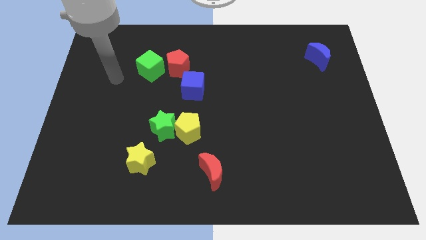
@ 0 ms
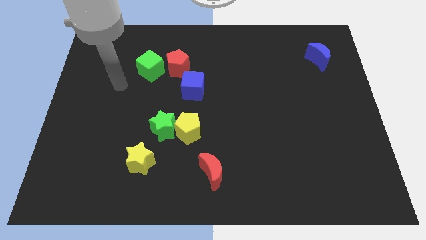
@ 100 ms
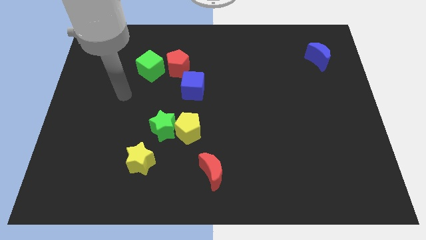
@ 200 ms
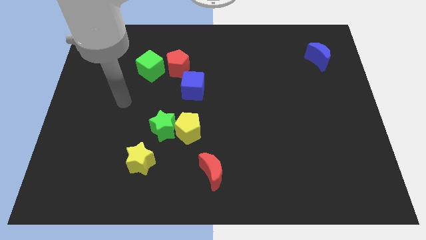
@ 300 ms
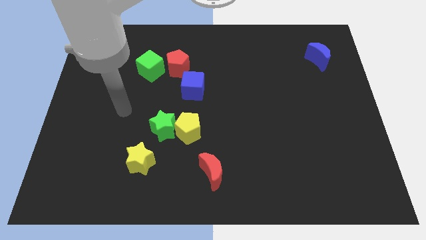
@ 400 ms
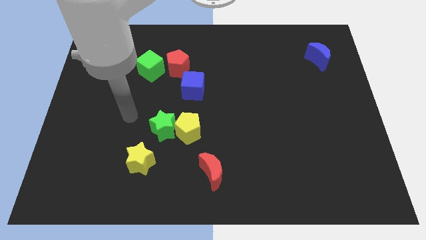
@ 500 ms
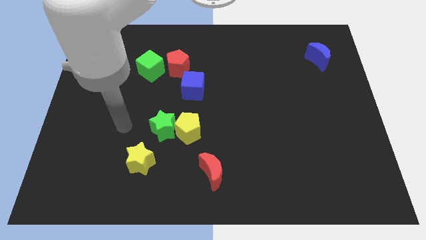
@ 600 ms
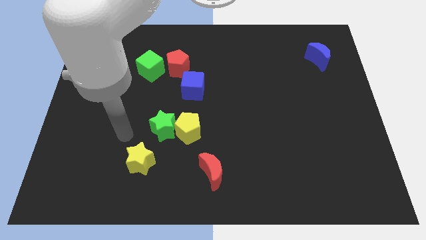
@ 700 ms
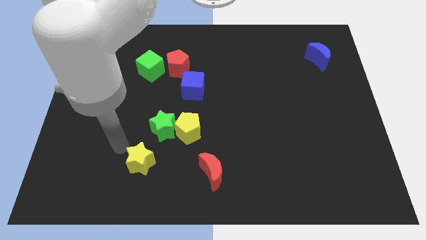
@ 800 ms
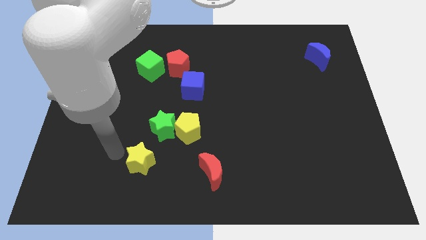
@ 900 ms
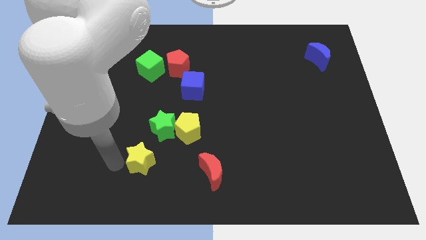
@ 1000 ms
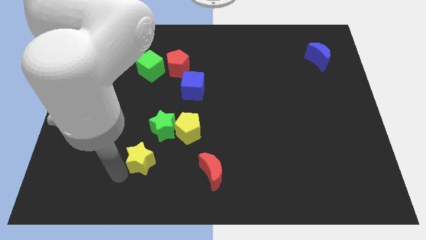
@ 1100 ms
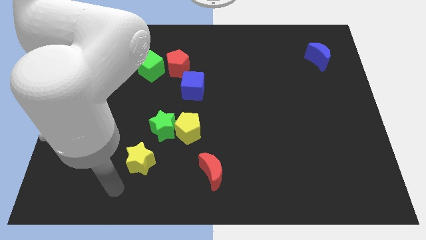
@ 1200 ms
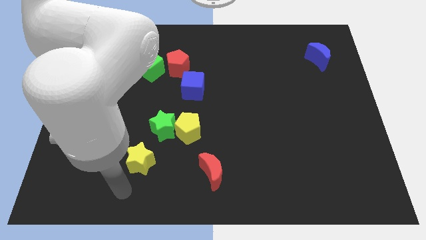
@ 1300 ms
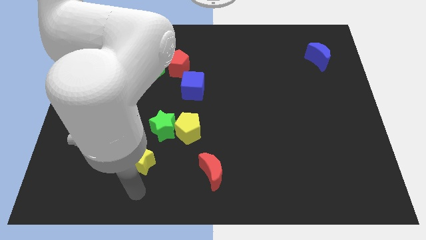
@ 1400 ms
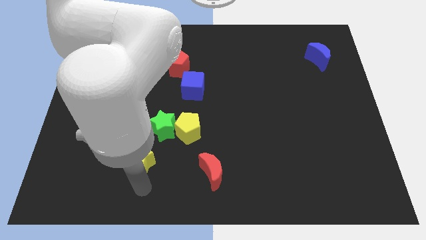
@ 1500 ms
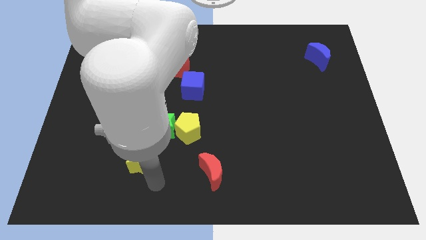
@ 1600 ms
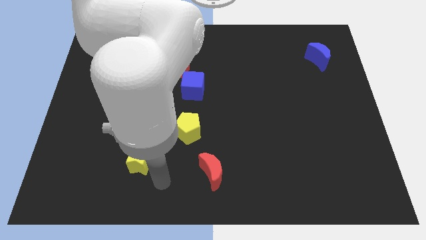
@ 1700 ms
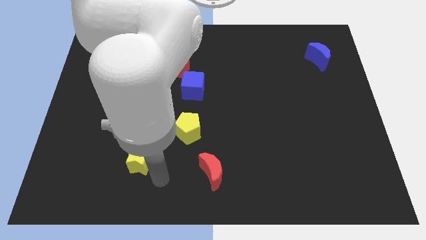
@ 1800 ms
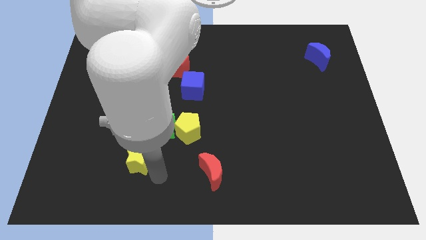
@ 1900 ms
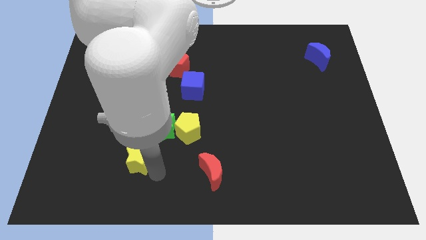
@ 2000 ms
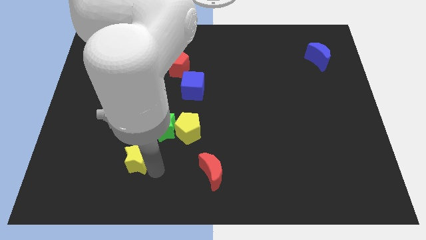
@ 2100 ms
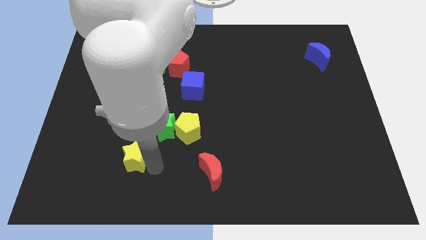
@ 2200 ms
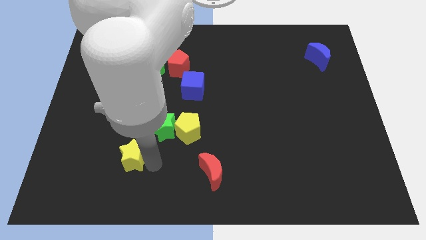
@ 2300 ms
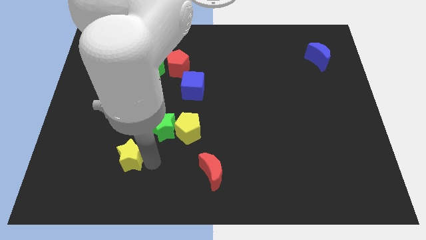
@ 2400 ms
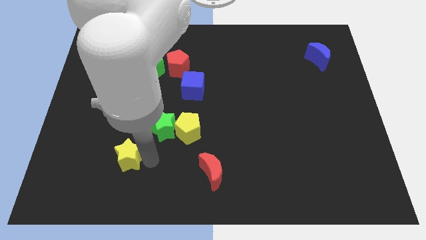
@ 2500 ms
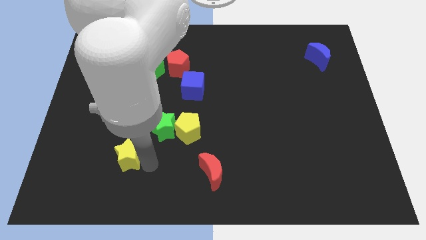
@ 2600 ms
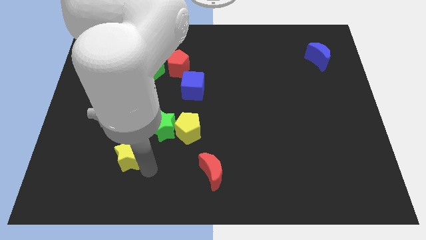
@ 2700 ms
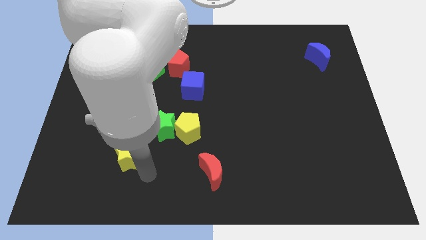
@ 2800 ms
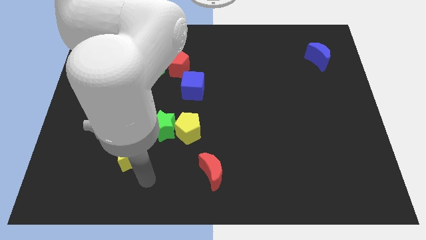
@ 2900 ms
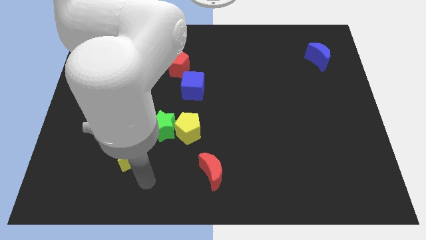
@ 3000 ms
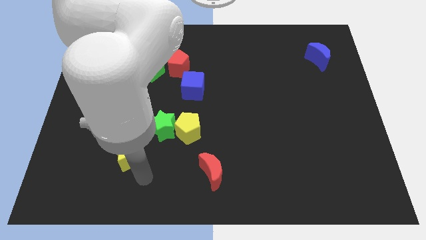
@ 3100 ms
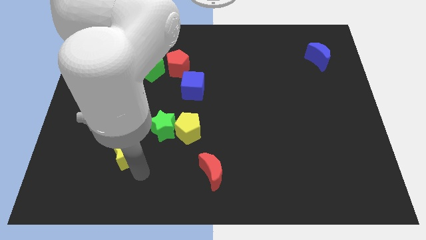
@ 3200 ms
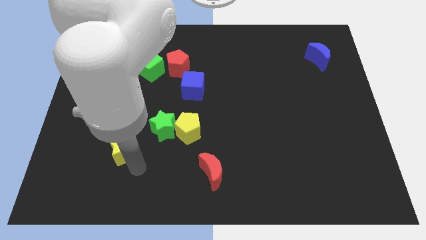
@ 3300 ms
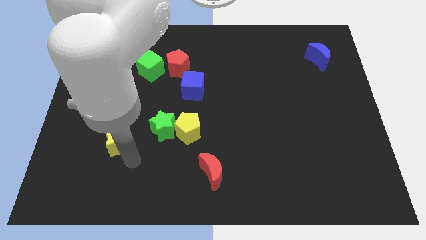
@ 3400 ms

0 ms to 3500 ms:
push the yellow star upwards and left diagonally somewhat

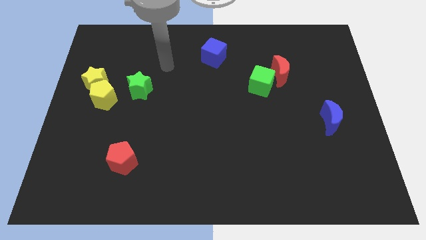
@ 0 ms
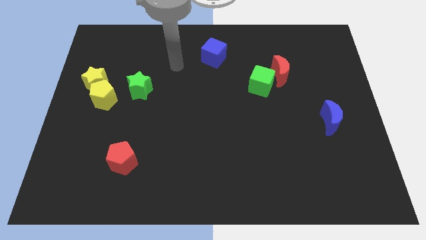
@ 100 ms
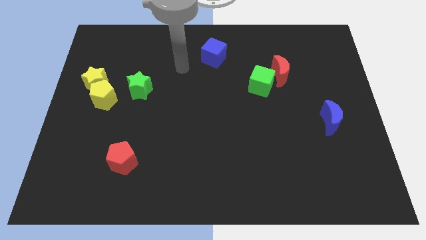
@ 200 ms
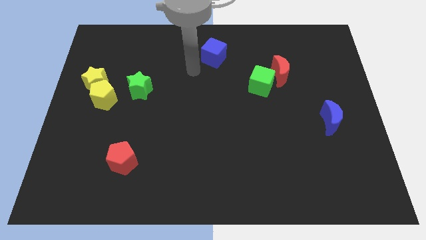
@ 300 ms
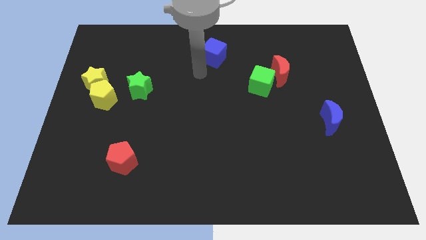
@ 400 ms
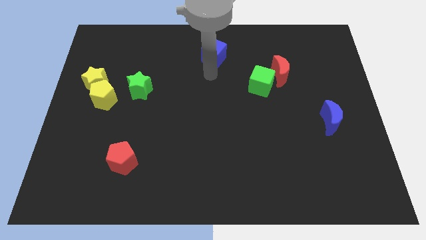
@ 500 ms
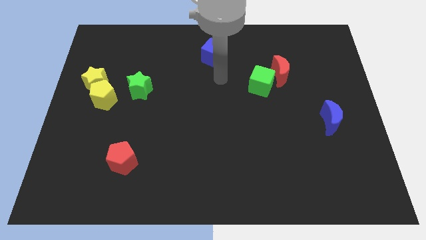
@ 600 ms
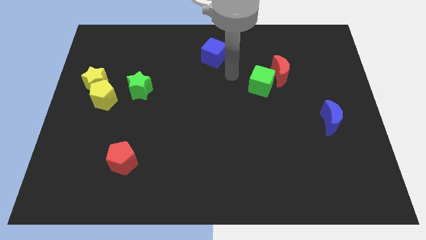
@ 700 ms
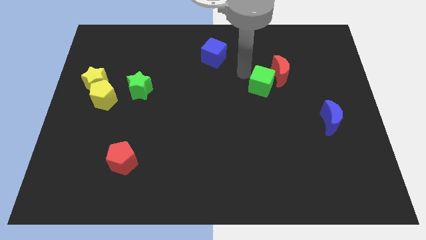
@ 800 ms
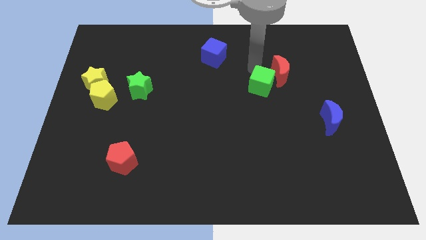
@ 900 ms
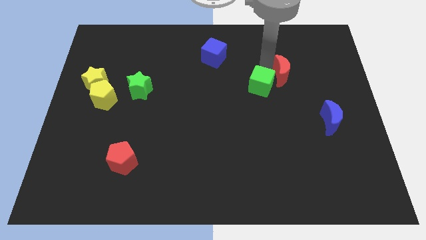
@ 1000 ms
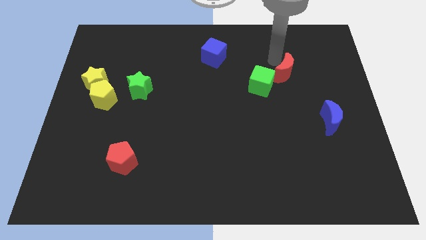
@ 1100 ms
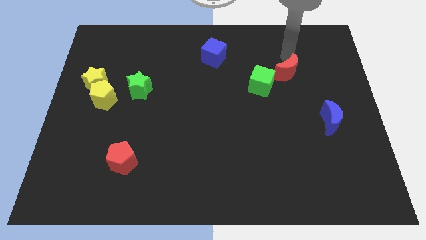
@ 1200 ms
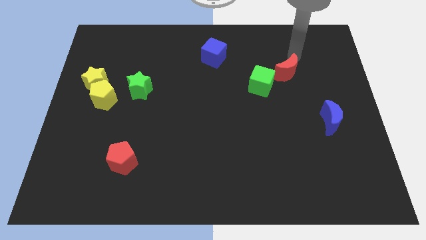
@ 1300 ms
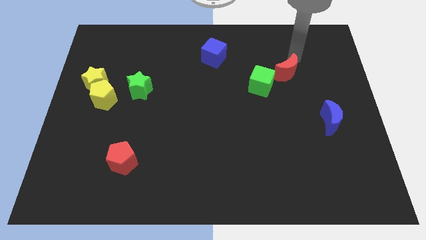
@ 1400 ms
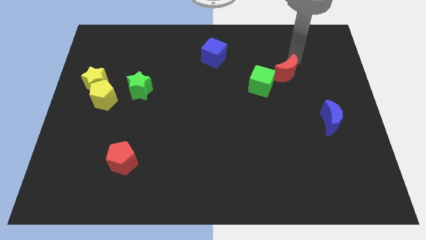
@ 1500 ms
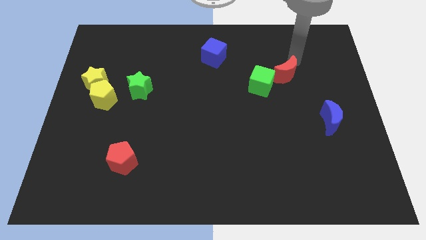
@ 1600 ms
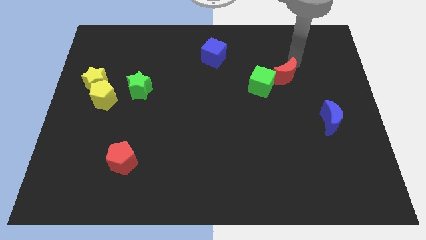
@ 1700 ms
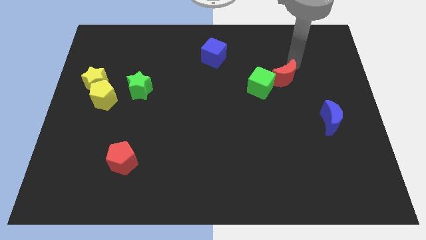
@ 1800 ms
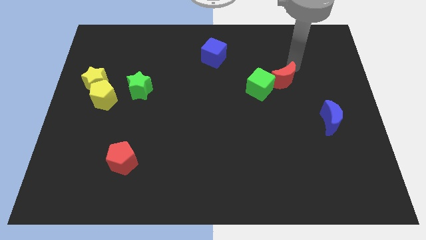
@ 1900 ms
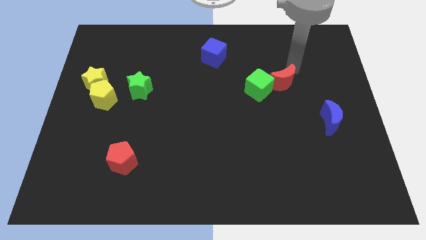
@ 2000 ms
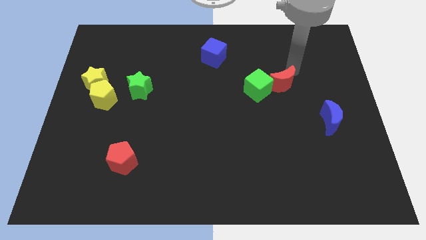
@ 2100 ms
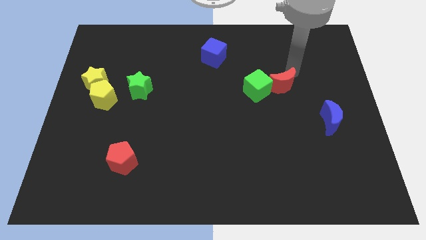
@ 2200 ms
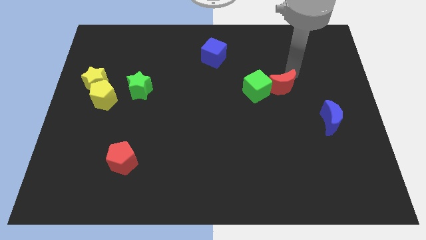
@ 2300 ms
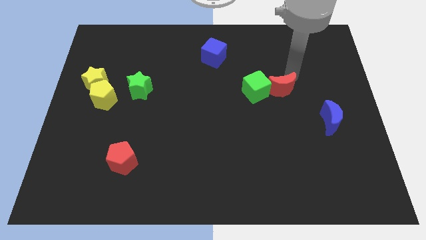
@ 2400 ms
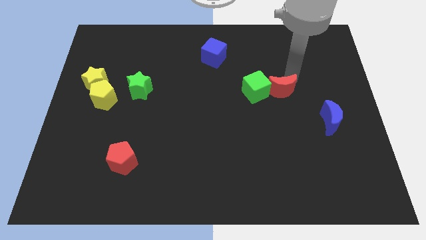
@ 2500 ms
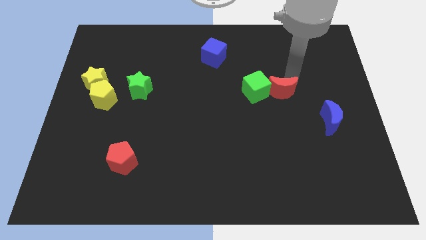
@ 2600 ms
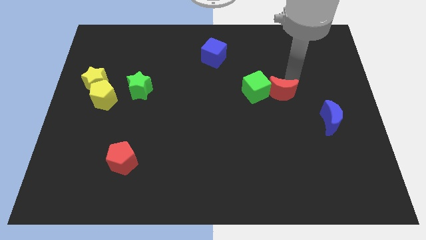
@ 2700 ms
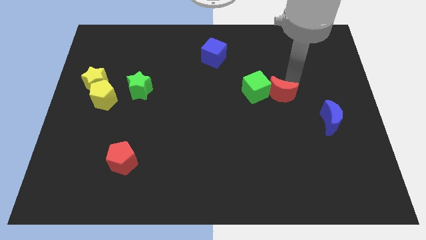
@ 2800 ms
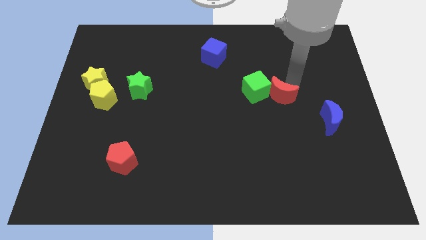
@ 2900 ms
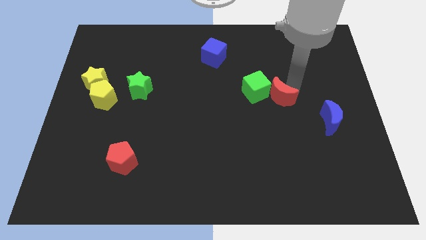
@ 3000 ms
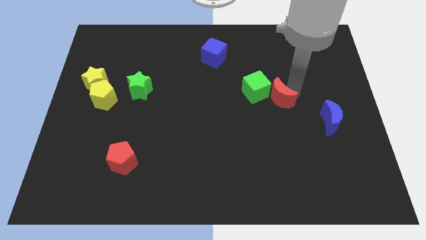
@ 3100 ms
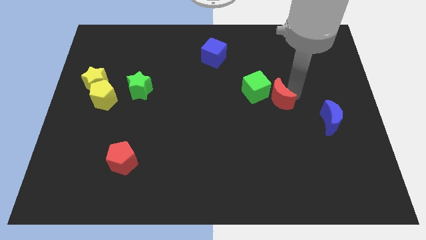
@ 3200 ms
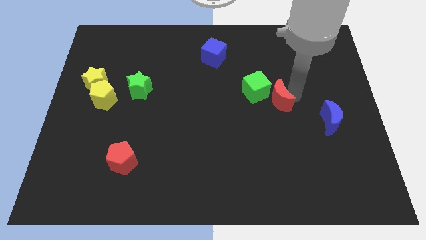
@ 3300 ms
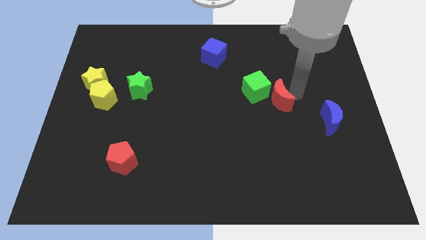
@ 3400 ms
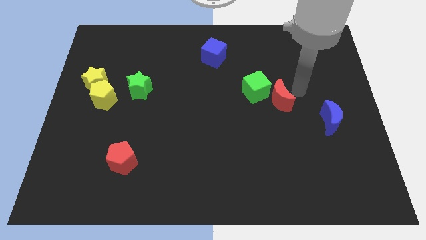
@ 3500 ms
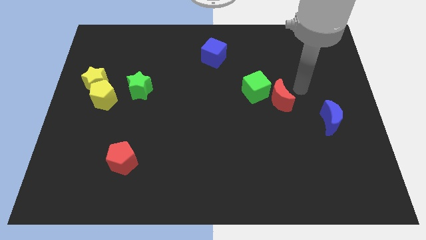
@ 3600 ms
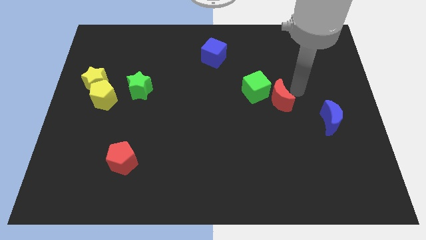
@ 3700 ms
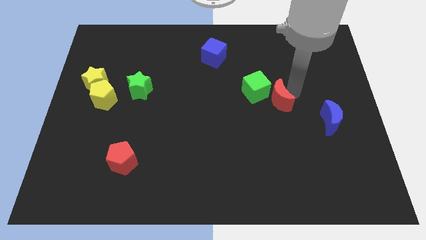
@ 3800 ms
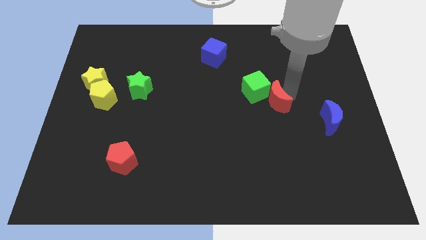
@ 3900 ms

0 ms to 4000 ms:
push the red moon downwards and then to the left a little bit

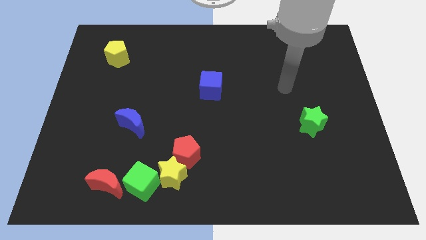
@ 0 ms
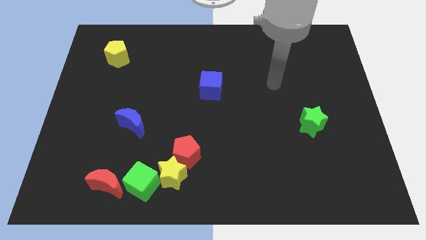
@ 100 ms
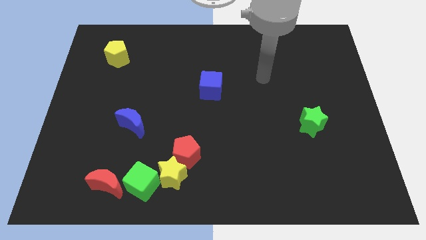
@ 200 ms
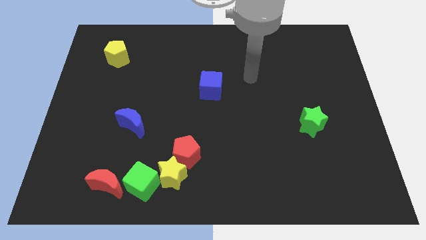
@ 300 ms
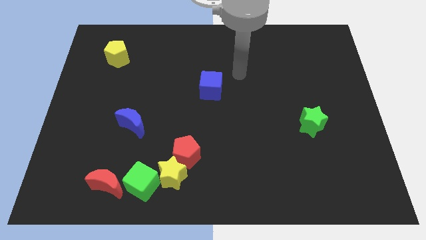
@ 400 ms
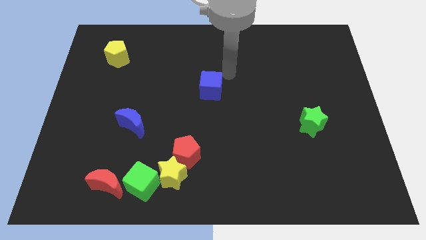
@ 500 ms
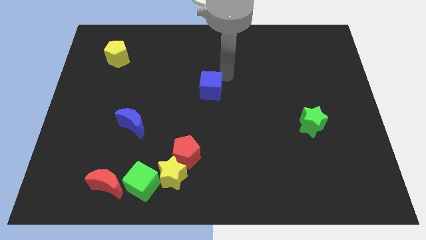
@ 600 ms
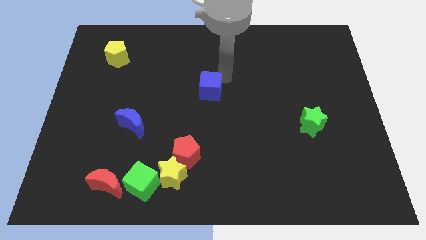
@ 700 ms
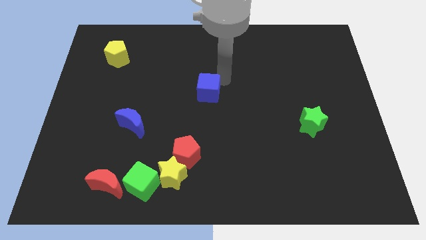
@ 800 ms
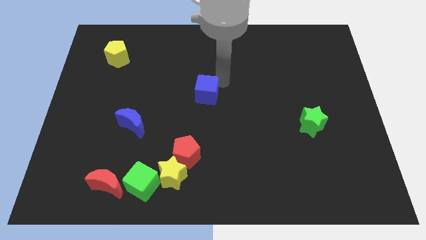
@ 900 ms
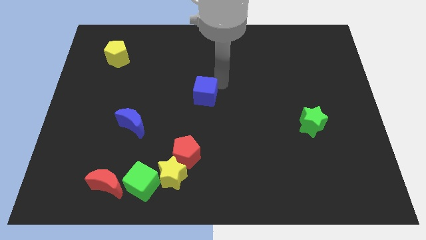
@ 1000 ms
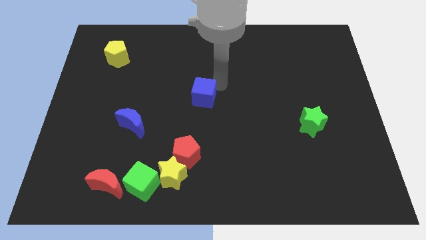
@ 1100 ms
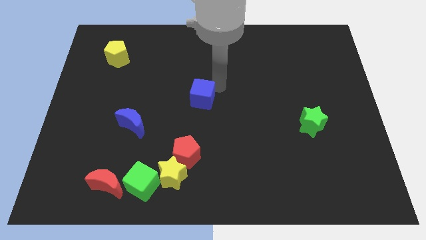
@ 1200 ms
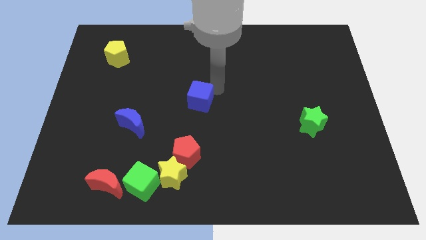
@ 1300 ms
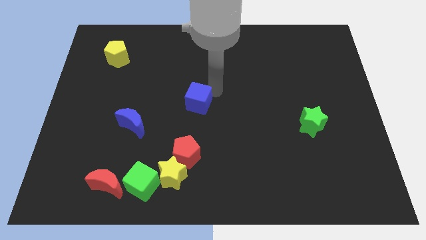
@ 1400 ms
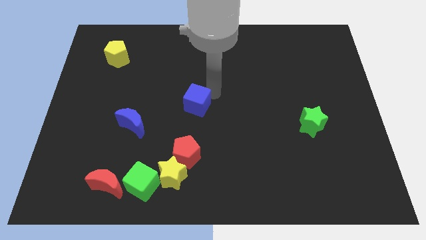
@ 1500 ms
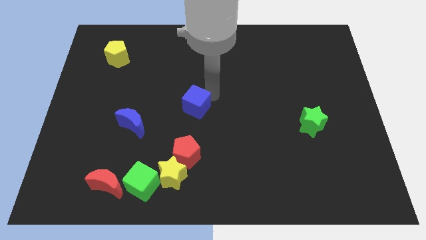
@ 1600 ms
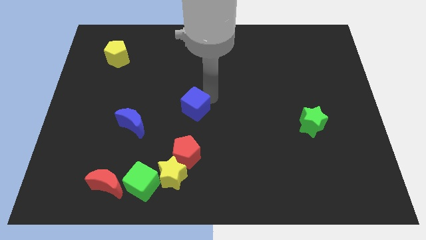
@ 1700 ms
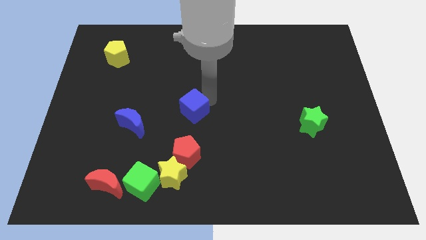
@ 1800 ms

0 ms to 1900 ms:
slightly slide the blue cube down and left
